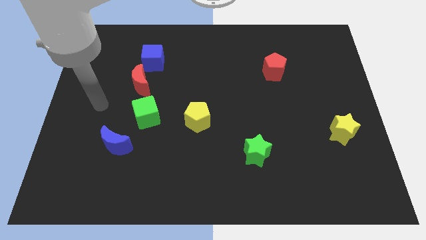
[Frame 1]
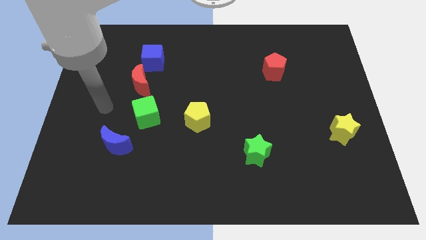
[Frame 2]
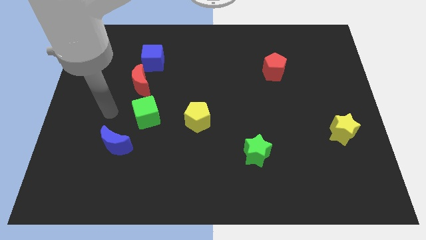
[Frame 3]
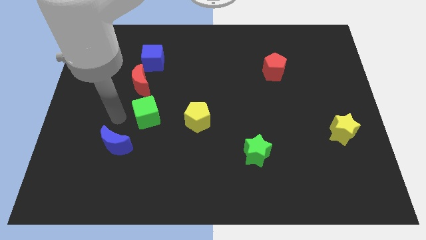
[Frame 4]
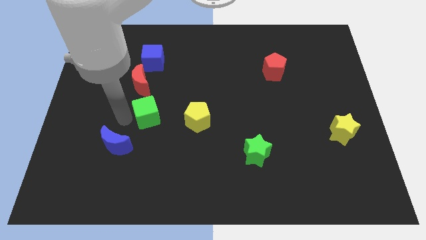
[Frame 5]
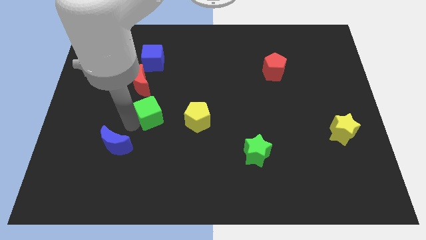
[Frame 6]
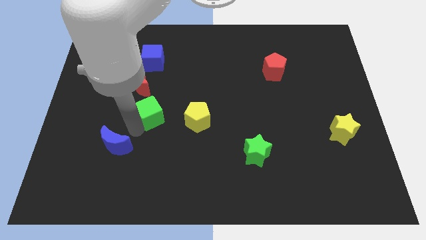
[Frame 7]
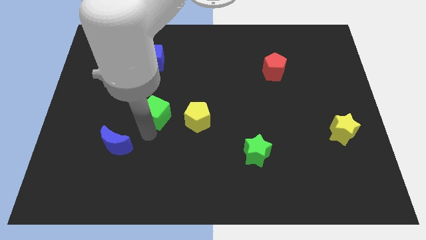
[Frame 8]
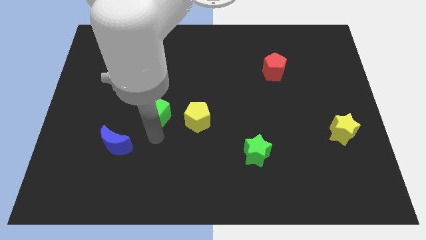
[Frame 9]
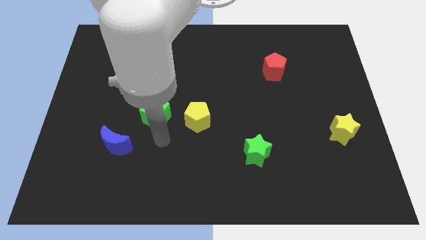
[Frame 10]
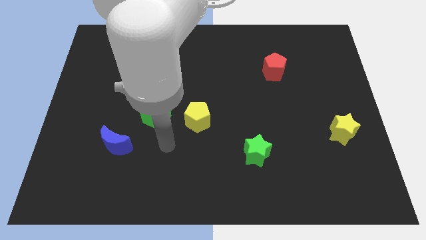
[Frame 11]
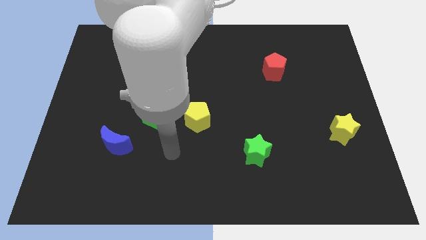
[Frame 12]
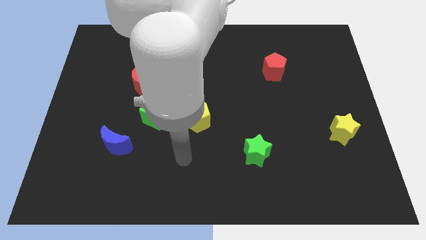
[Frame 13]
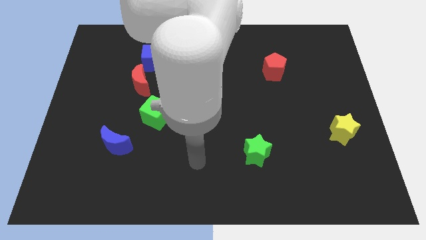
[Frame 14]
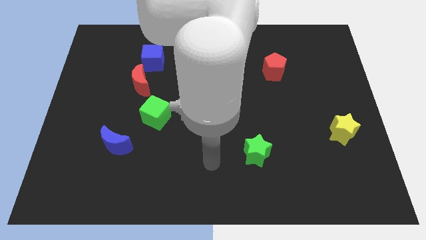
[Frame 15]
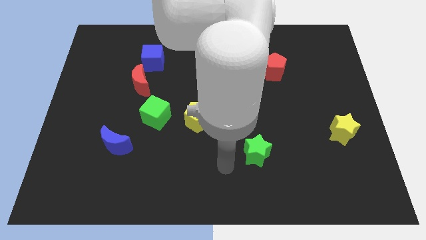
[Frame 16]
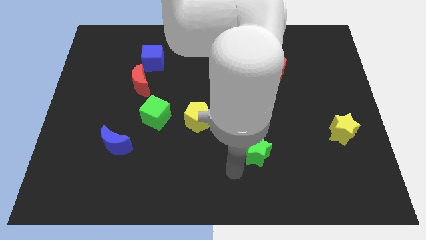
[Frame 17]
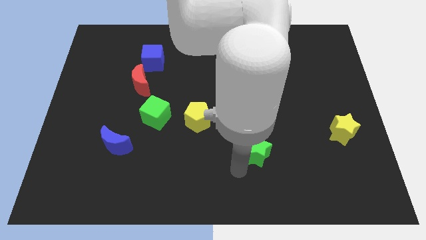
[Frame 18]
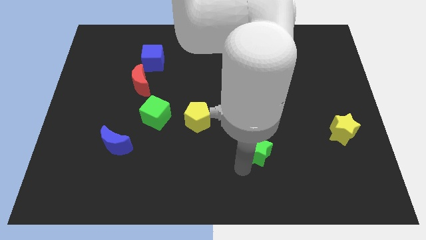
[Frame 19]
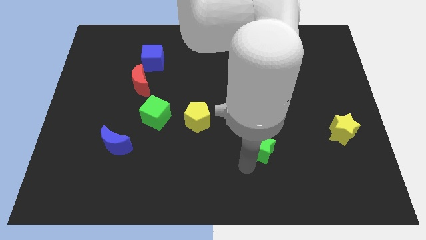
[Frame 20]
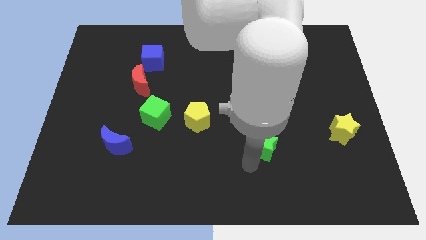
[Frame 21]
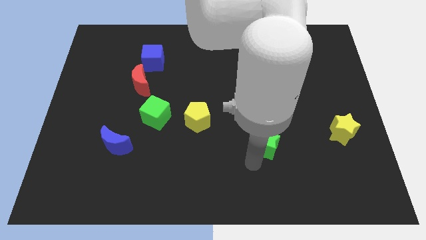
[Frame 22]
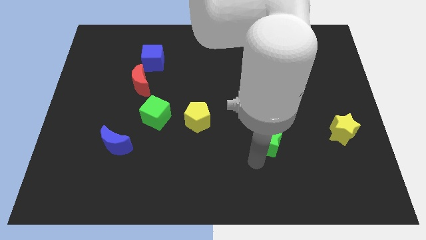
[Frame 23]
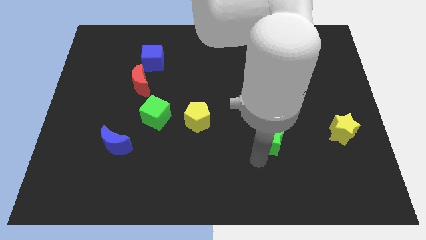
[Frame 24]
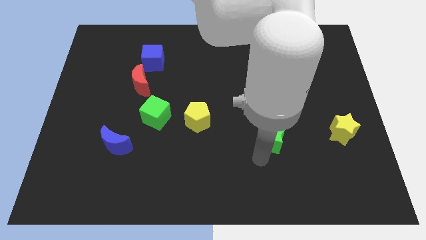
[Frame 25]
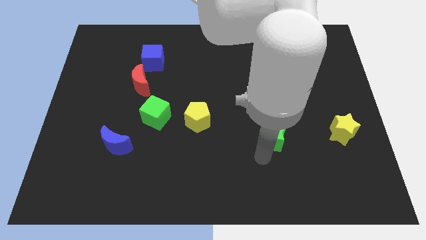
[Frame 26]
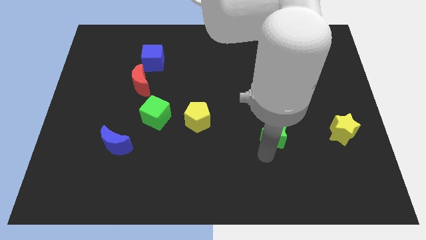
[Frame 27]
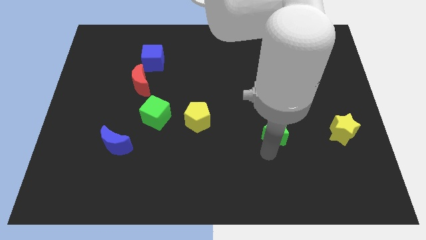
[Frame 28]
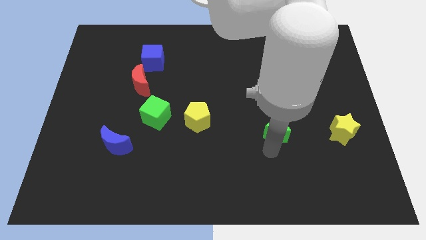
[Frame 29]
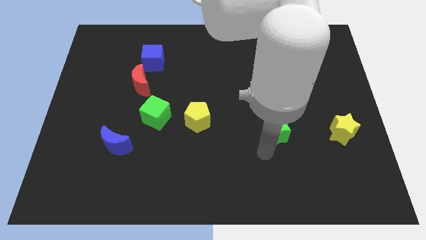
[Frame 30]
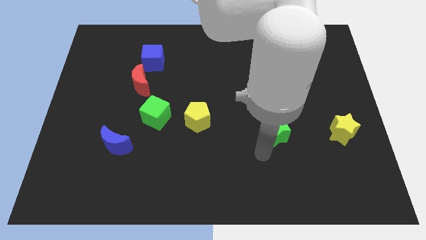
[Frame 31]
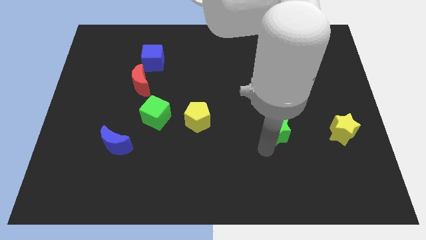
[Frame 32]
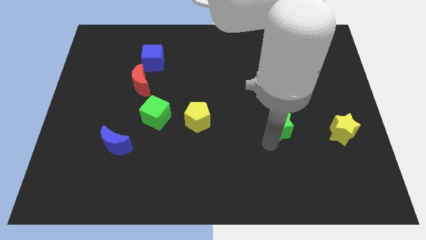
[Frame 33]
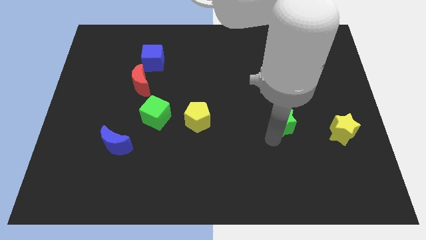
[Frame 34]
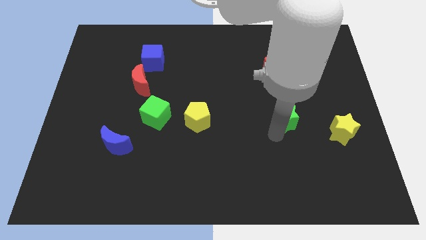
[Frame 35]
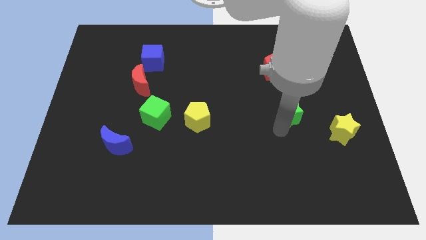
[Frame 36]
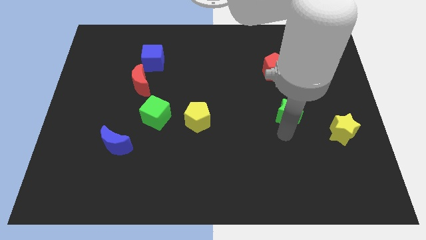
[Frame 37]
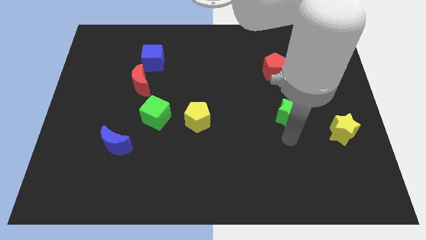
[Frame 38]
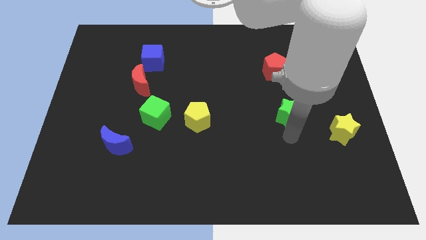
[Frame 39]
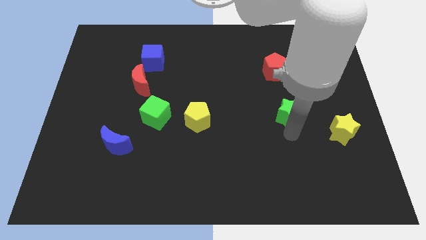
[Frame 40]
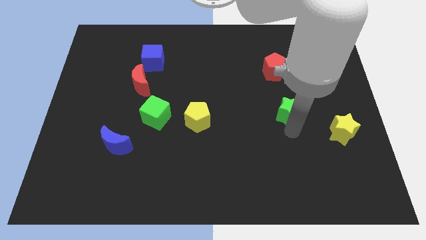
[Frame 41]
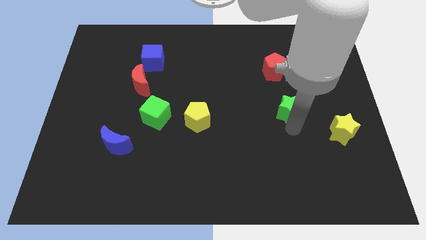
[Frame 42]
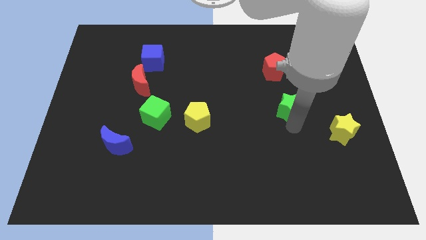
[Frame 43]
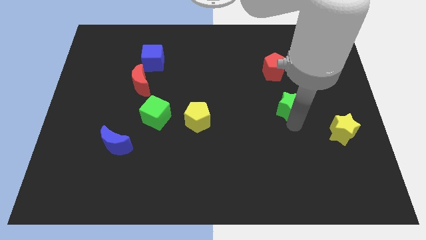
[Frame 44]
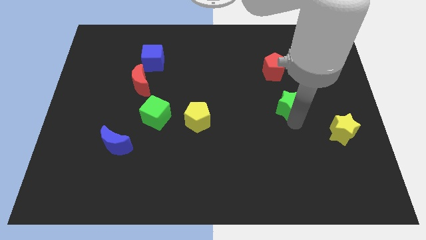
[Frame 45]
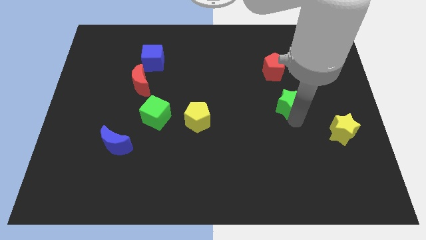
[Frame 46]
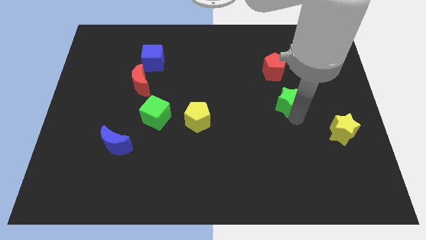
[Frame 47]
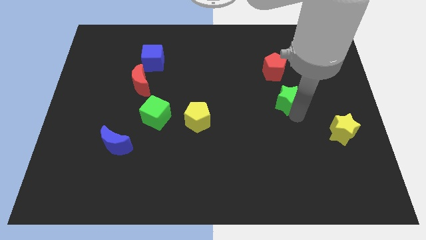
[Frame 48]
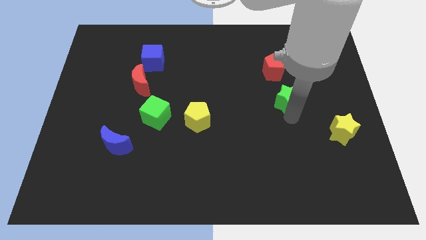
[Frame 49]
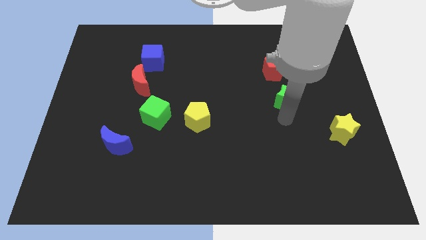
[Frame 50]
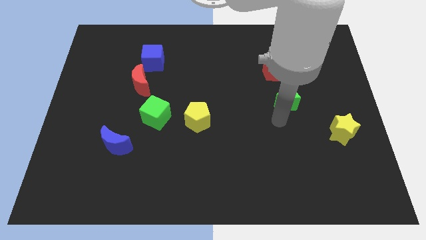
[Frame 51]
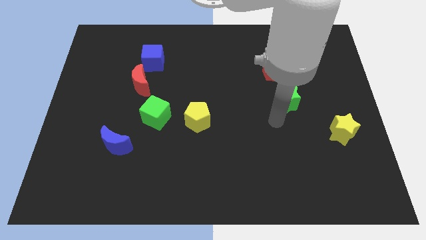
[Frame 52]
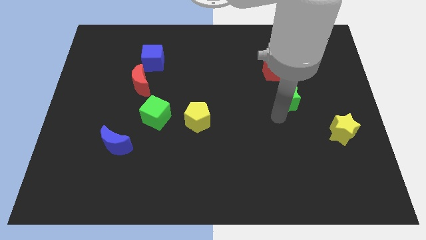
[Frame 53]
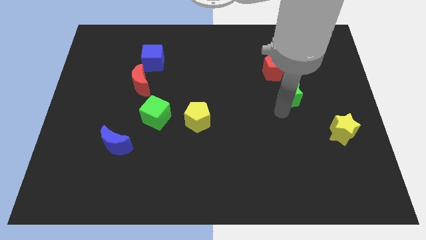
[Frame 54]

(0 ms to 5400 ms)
put the green star diagonally down and to the right of the red pentagon
